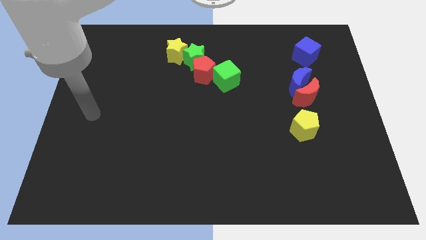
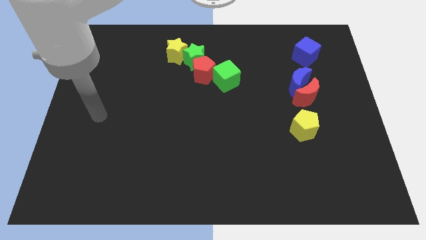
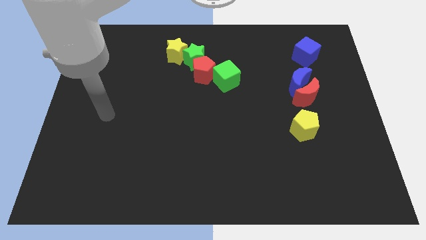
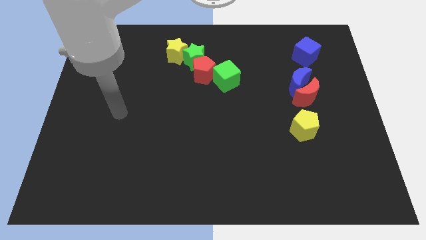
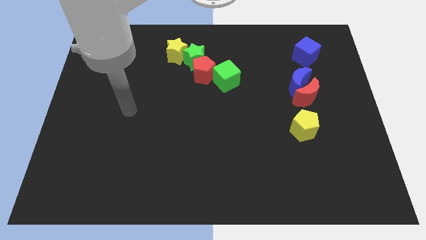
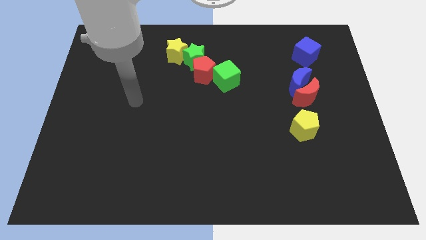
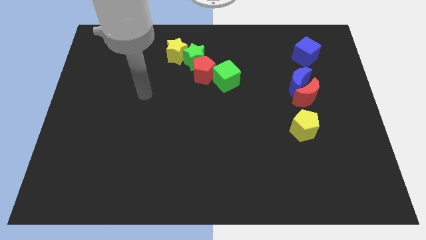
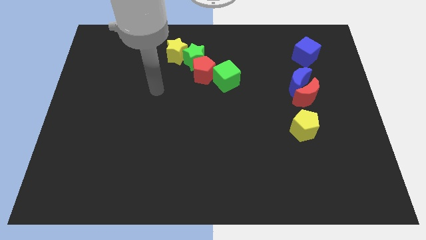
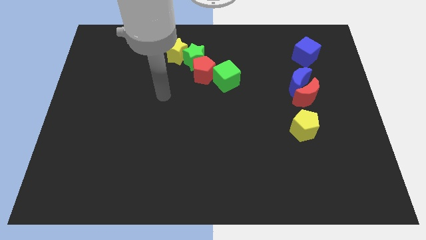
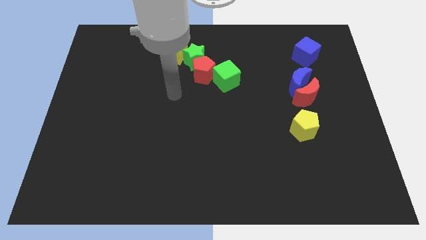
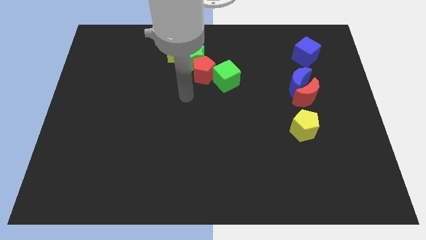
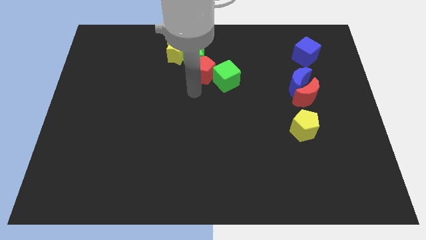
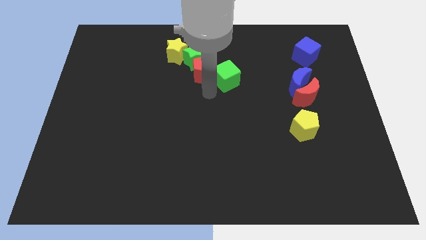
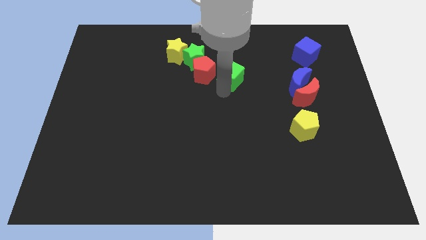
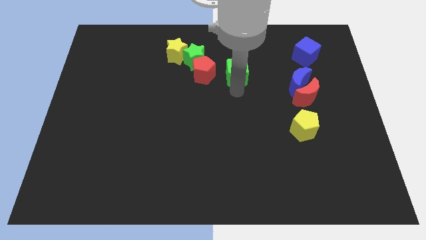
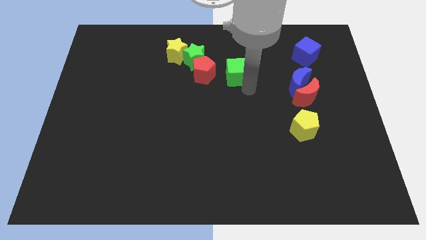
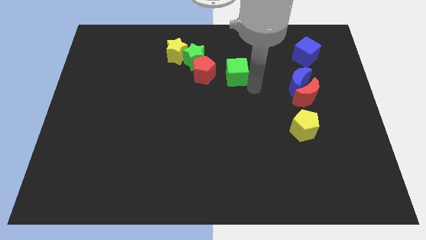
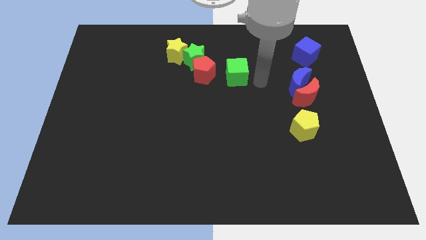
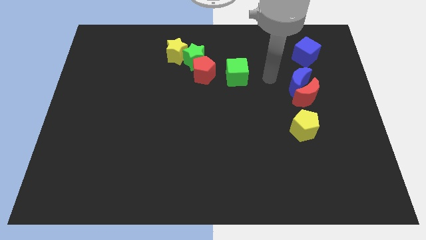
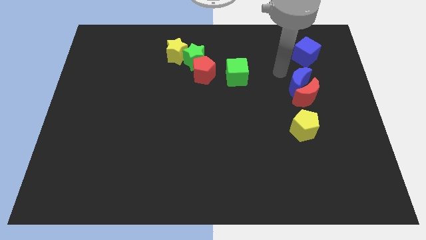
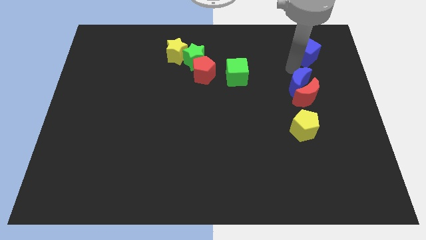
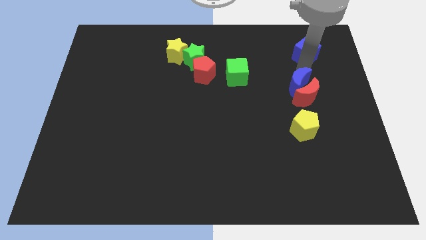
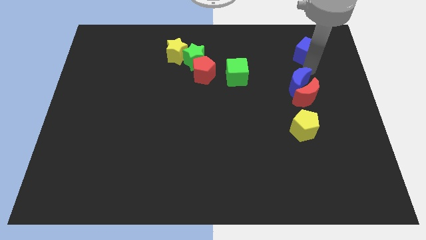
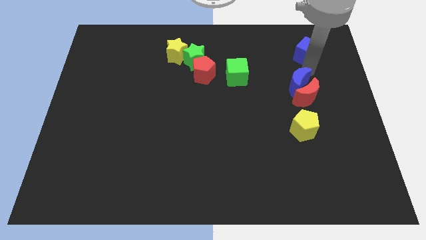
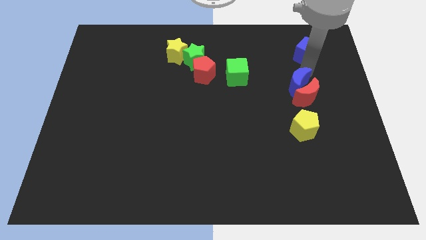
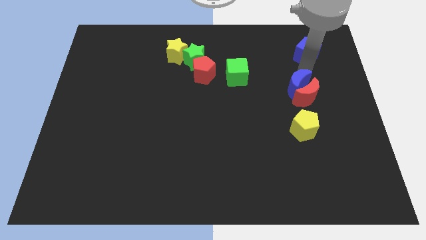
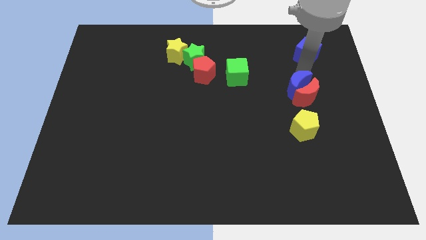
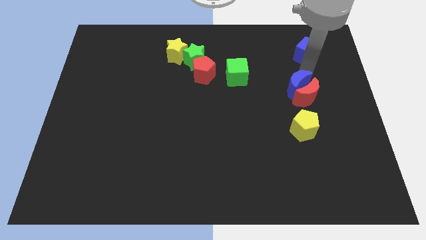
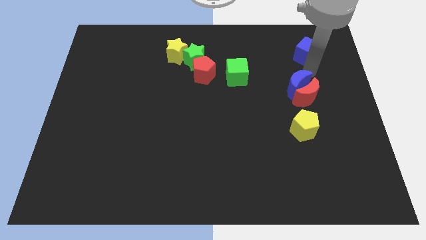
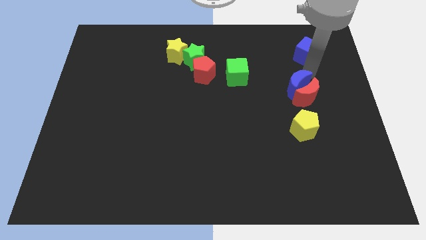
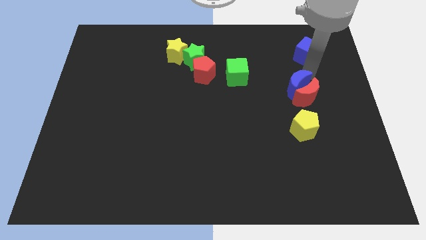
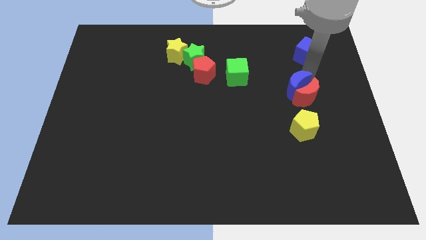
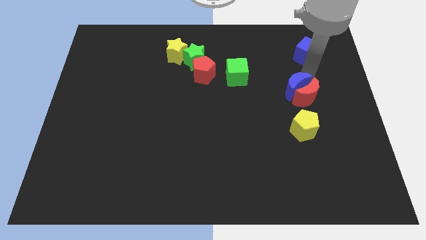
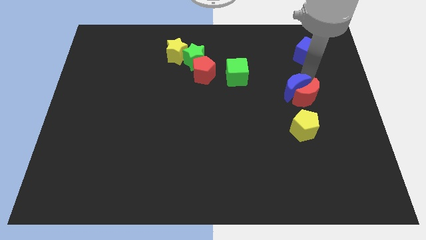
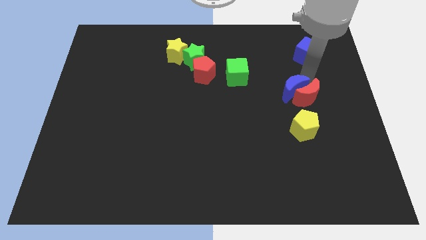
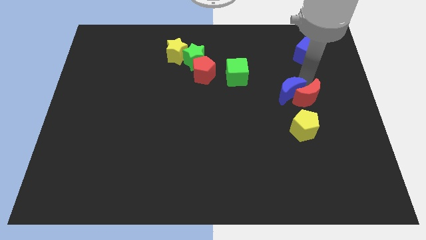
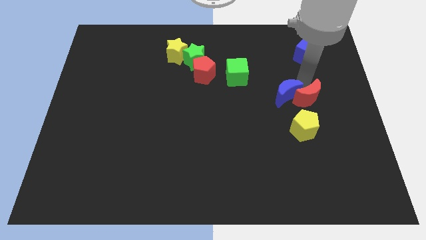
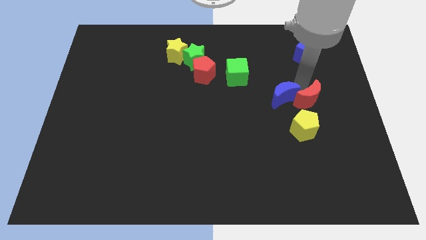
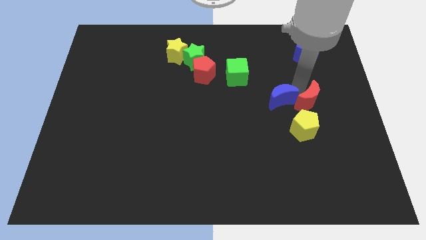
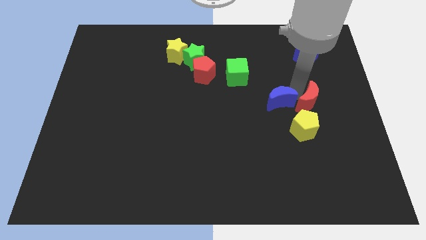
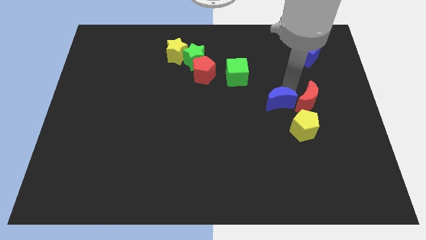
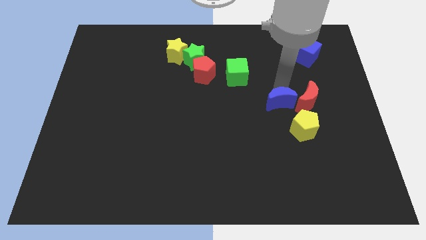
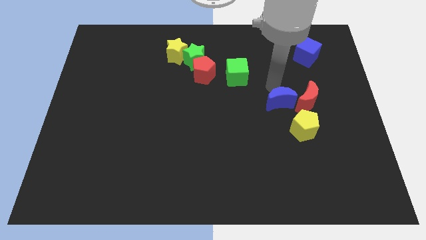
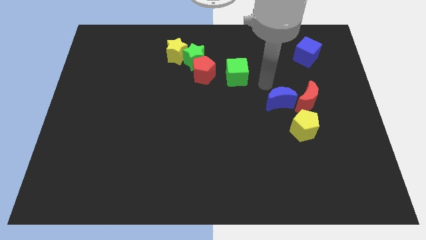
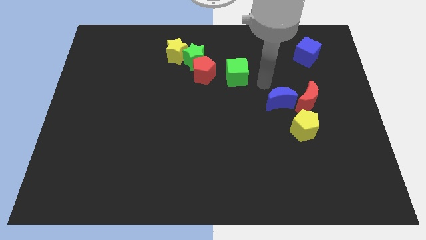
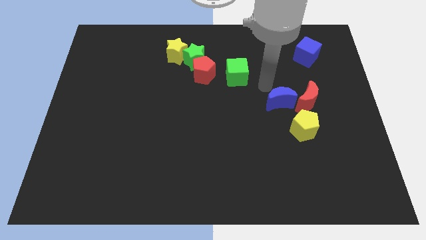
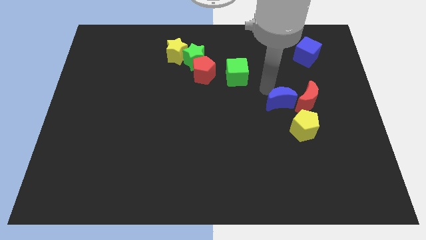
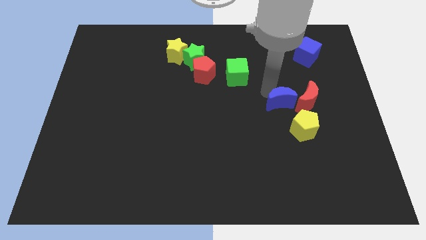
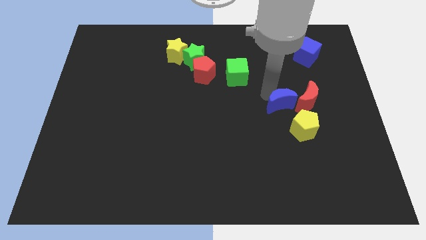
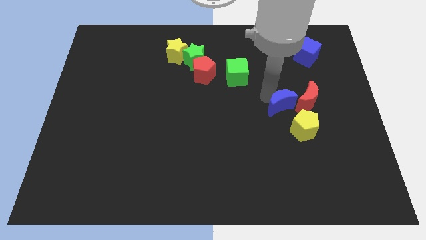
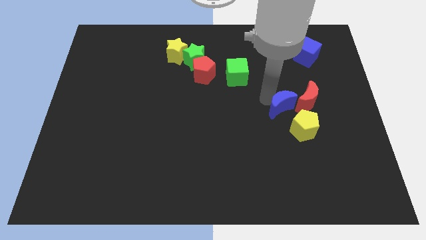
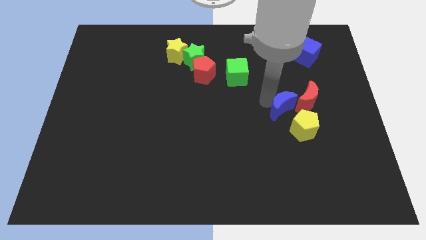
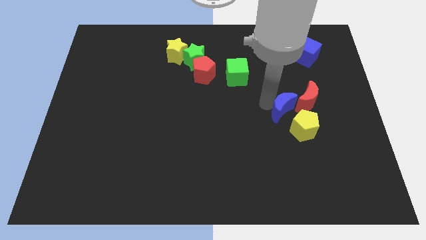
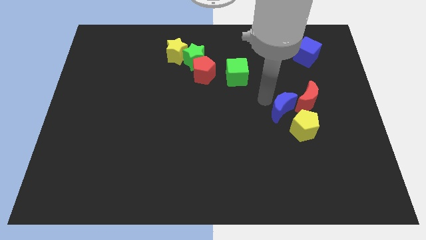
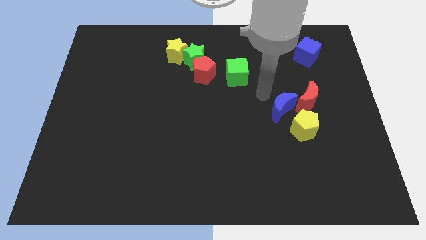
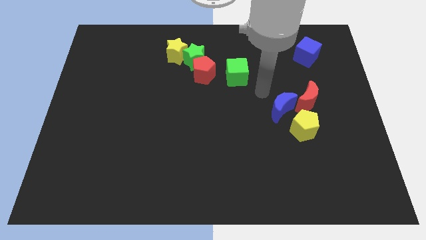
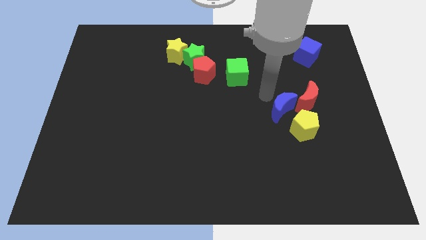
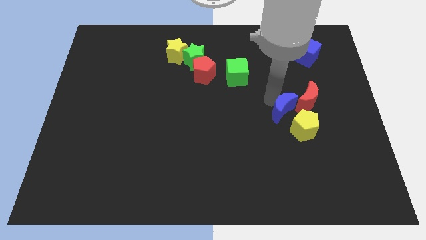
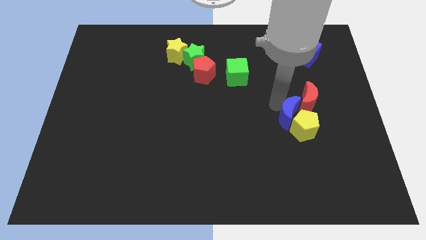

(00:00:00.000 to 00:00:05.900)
put the blue moon next to the yellow pentagon

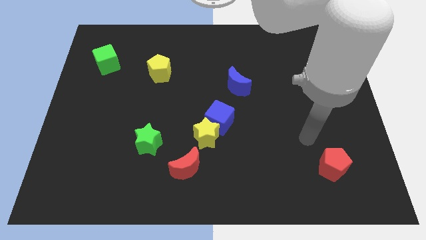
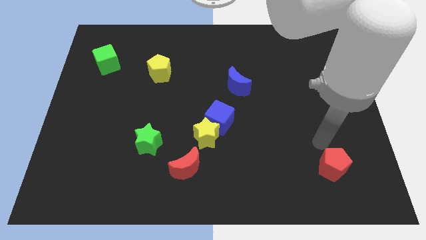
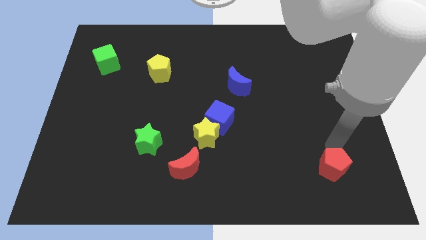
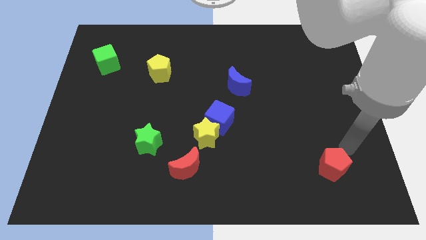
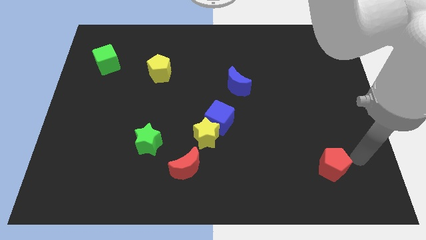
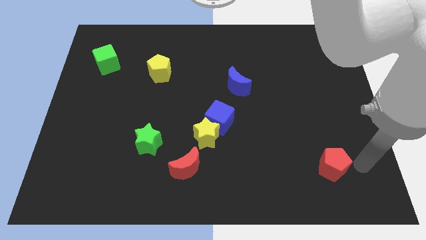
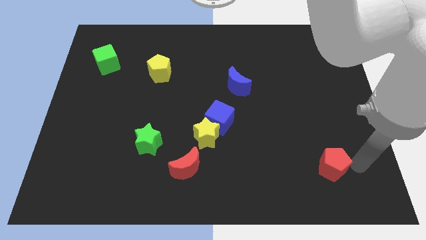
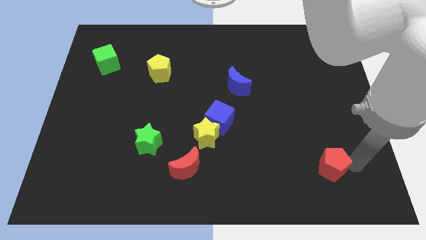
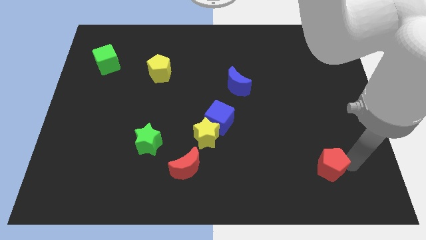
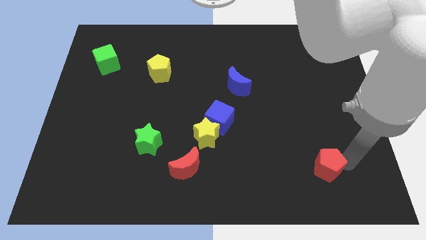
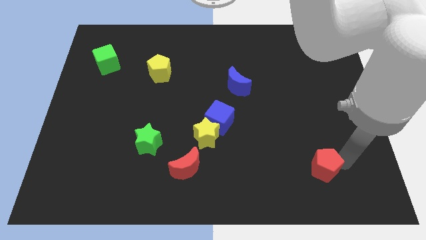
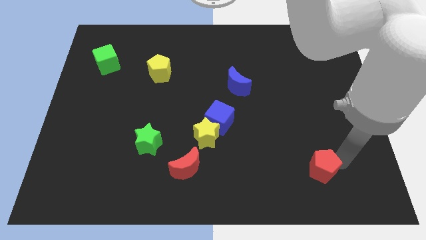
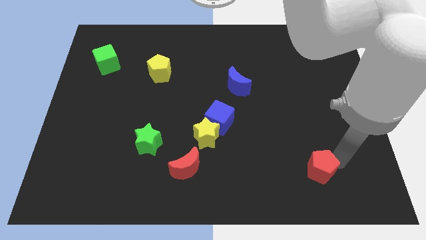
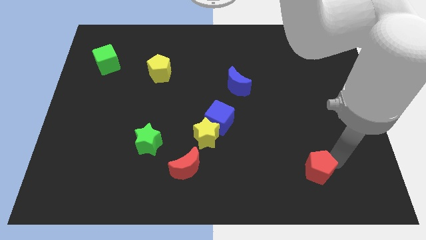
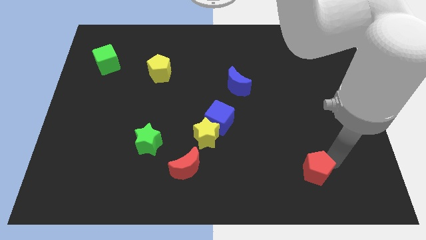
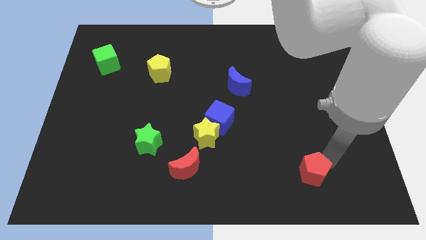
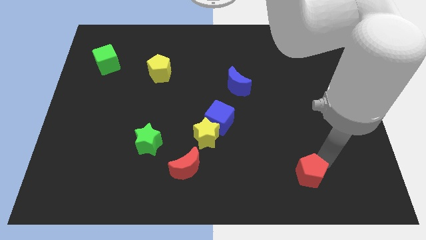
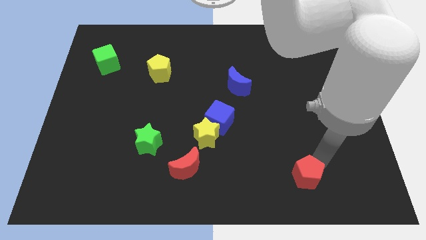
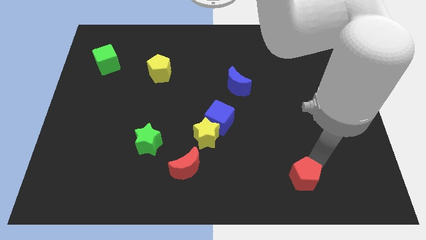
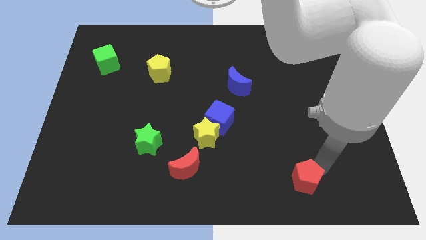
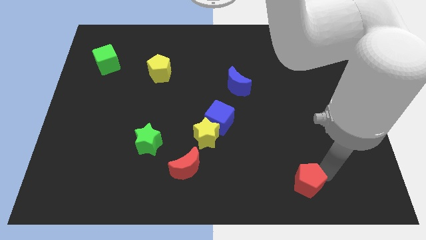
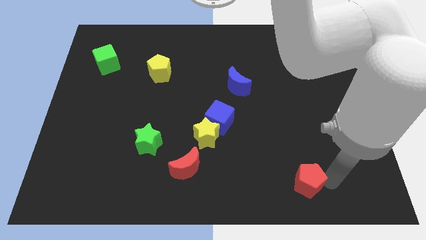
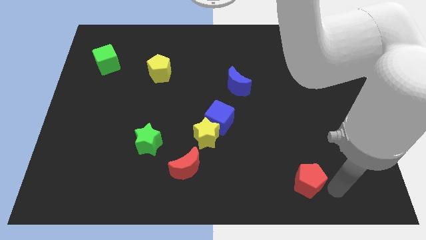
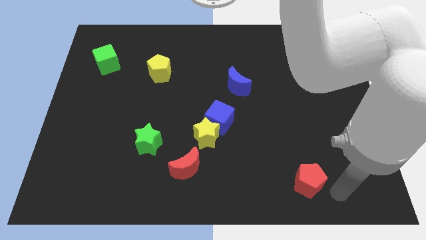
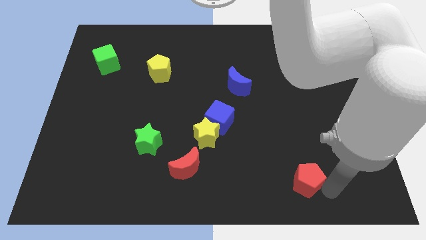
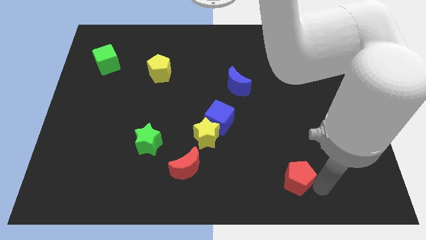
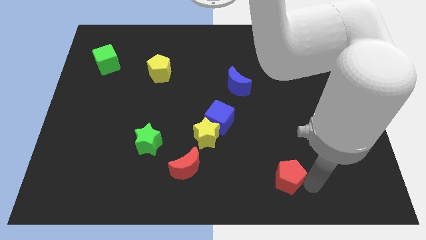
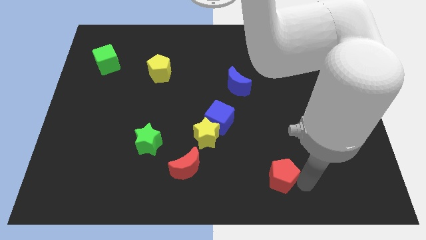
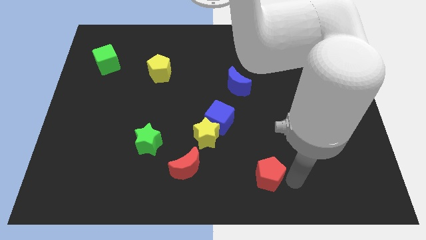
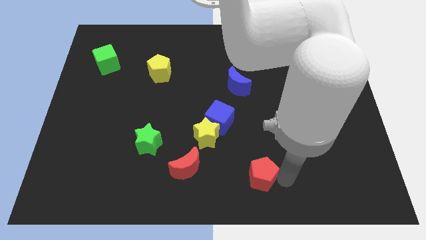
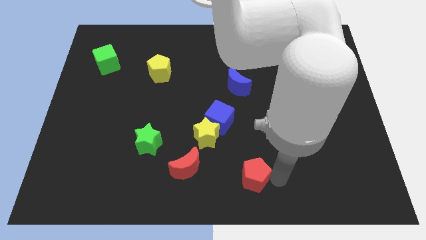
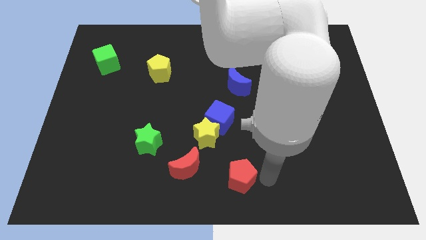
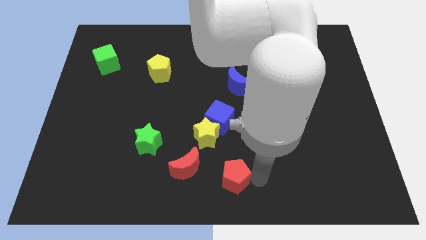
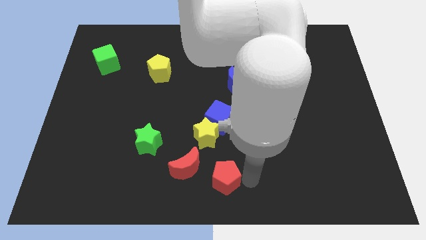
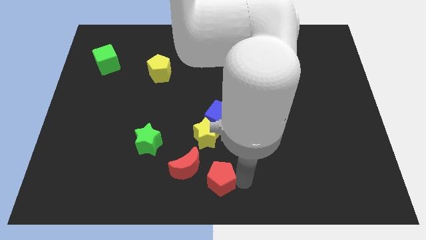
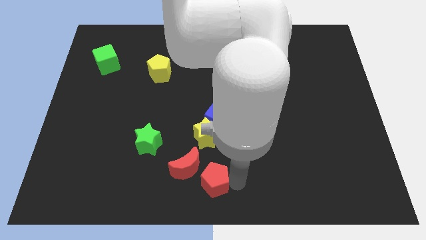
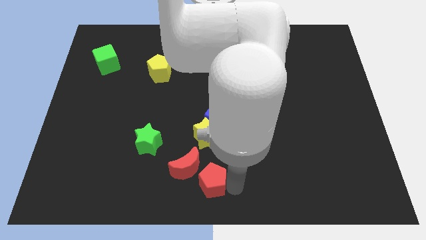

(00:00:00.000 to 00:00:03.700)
move the red pentagon to the red moon
